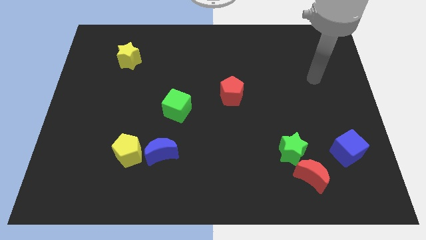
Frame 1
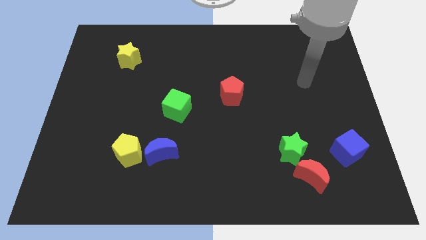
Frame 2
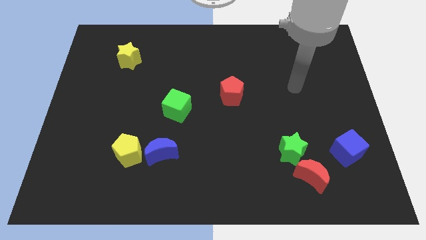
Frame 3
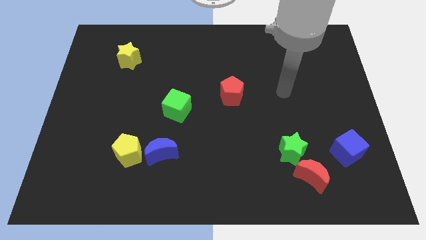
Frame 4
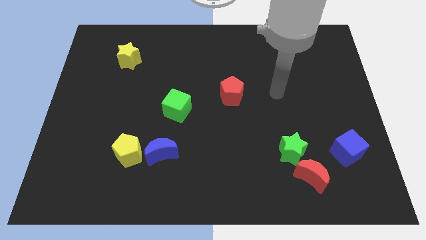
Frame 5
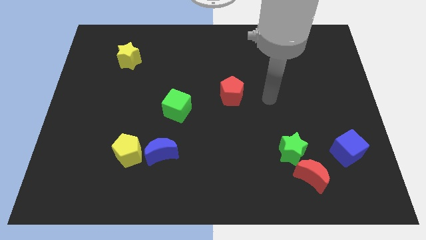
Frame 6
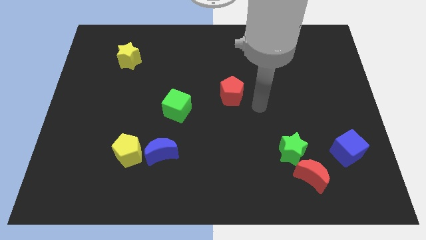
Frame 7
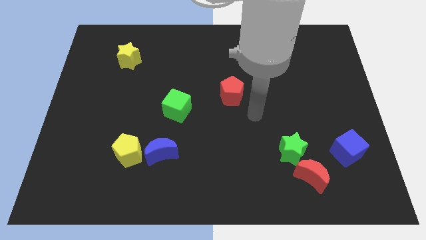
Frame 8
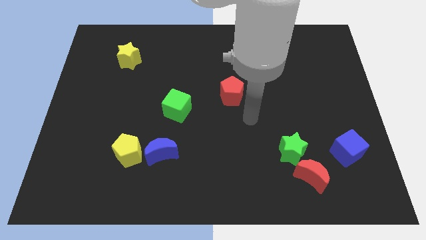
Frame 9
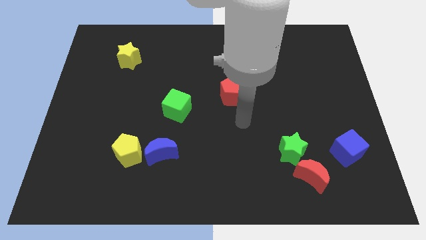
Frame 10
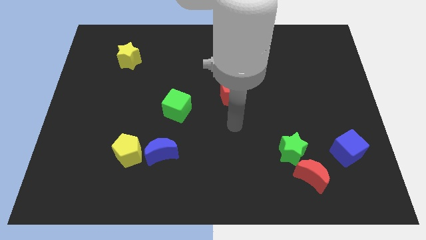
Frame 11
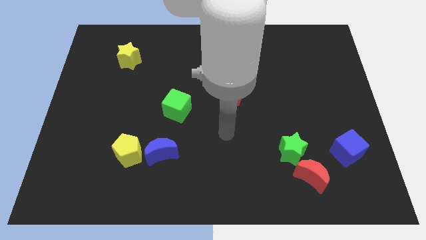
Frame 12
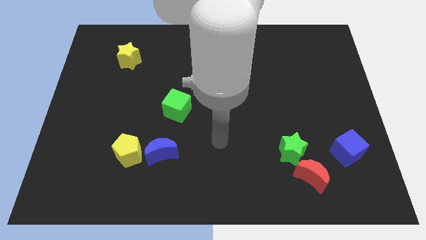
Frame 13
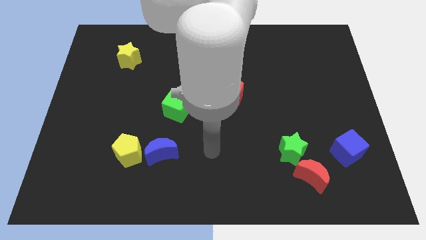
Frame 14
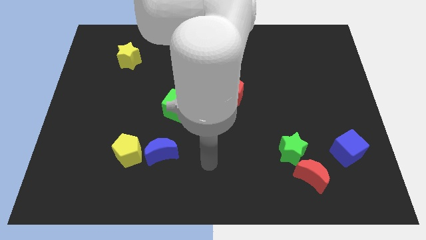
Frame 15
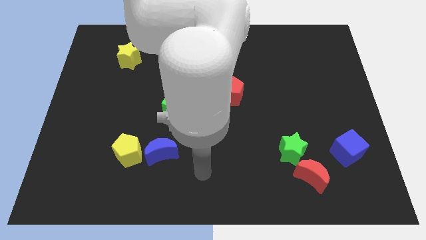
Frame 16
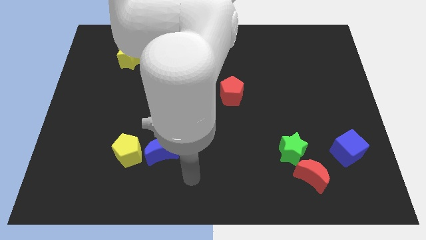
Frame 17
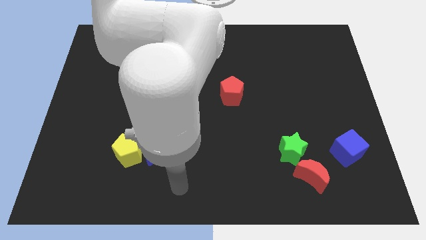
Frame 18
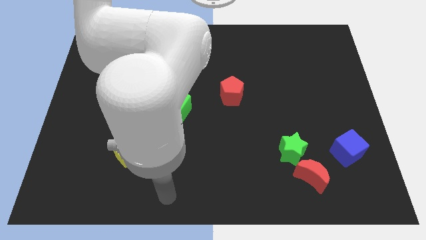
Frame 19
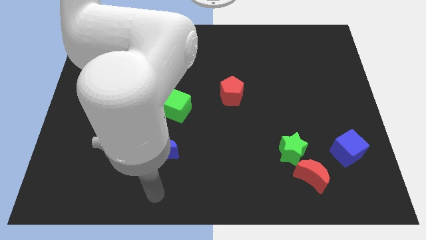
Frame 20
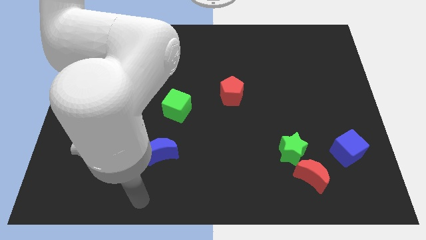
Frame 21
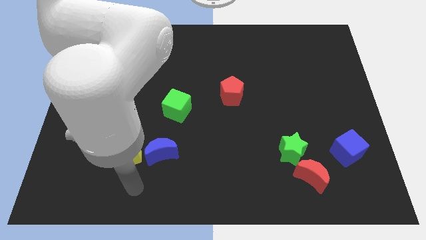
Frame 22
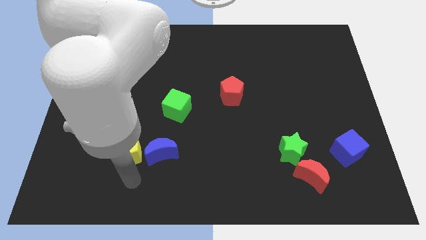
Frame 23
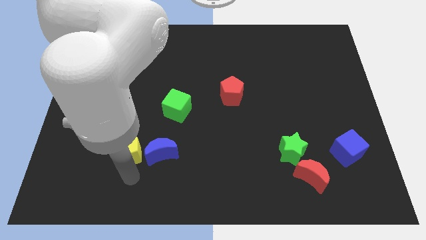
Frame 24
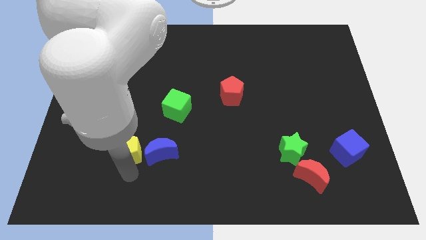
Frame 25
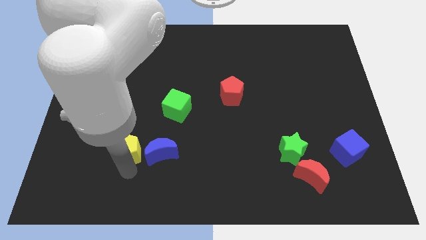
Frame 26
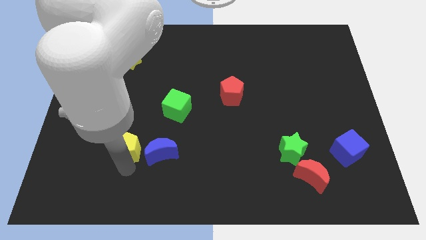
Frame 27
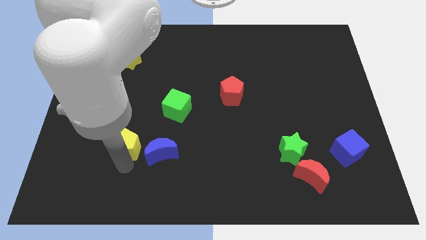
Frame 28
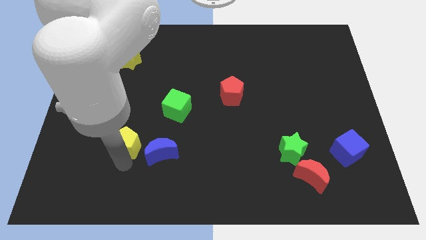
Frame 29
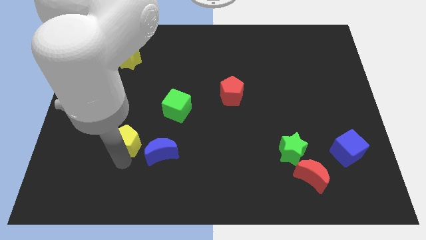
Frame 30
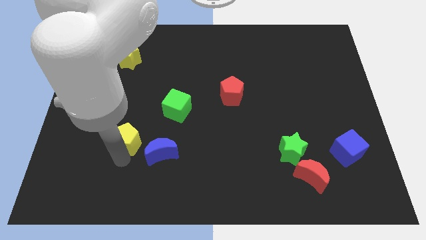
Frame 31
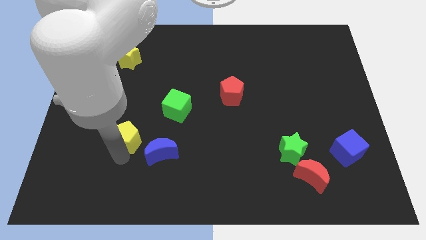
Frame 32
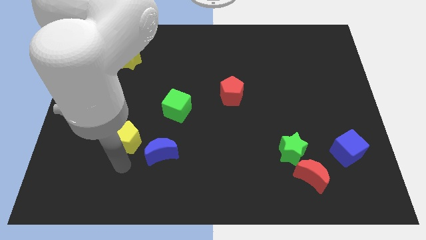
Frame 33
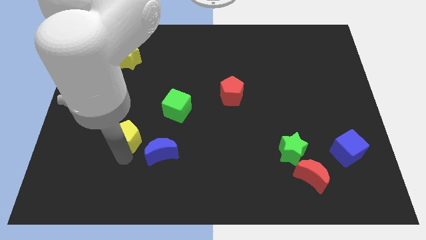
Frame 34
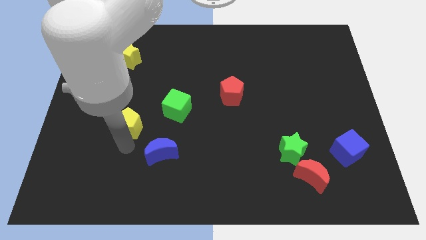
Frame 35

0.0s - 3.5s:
slightly push the yellow pentagon upwards

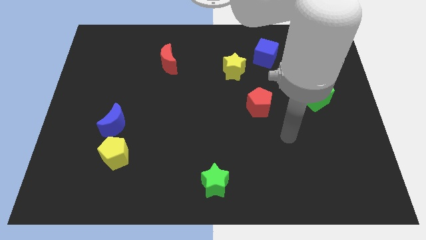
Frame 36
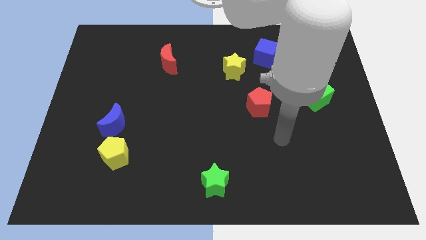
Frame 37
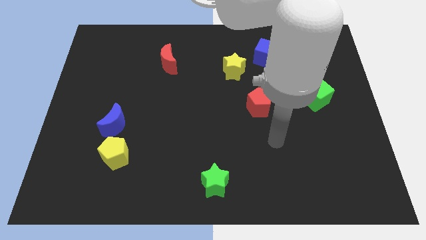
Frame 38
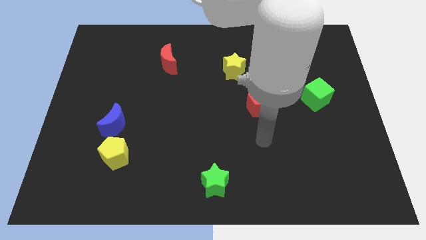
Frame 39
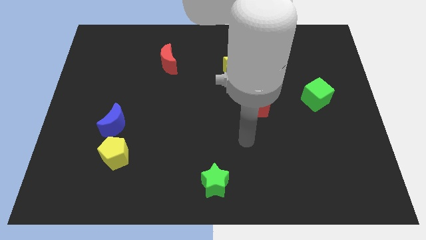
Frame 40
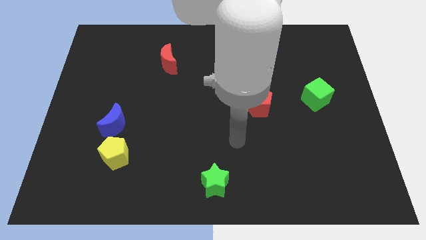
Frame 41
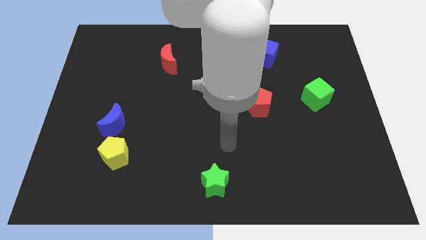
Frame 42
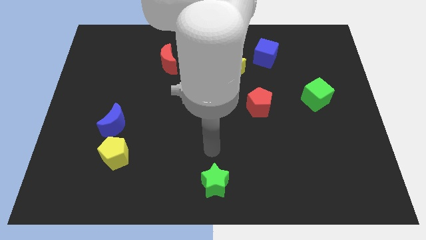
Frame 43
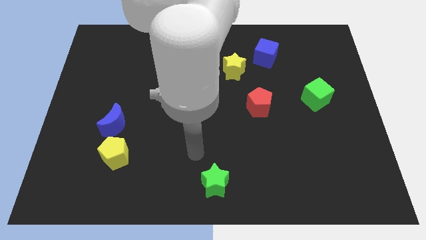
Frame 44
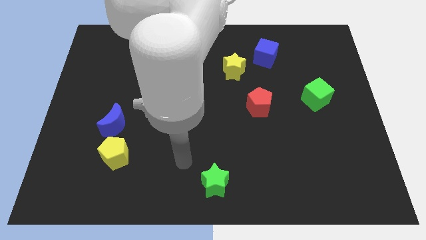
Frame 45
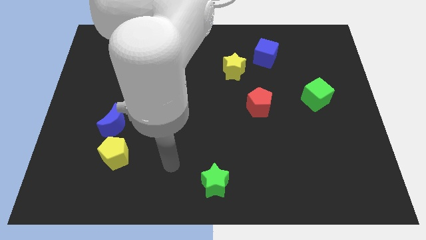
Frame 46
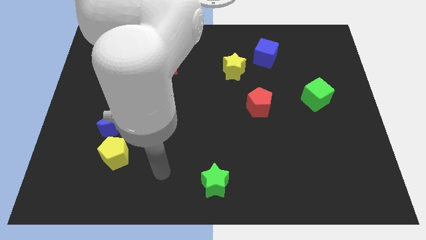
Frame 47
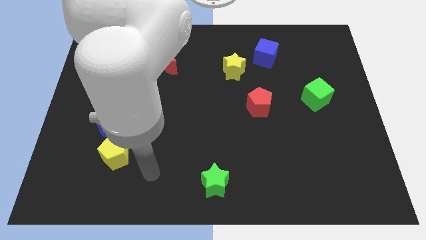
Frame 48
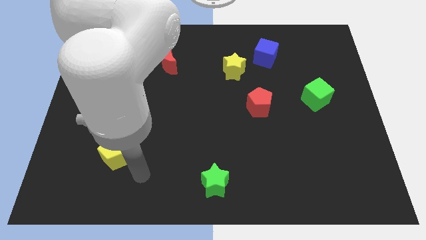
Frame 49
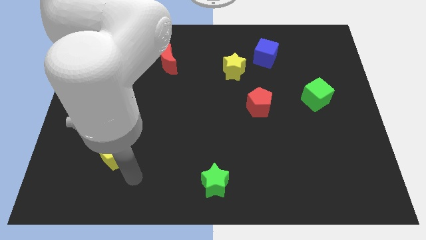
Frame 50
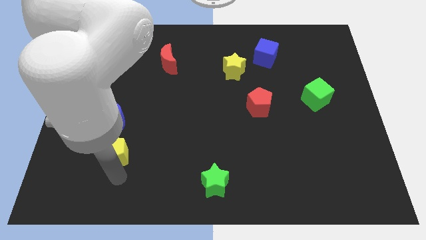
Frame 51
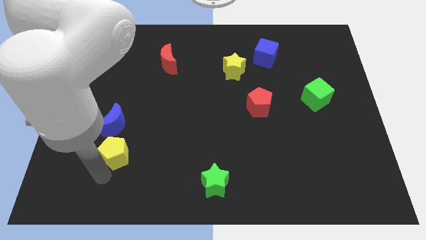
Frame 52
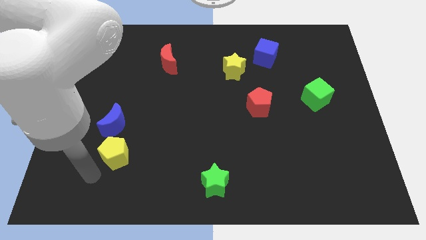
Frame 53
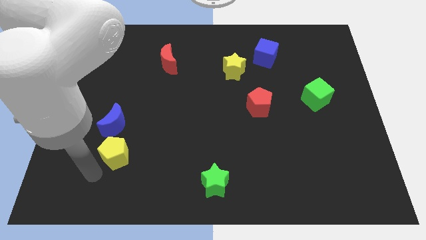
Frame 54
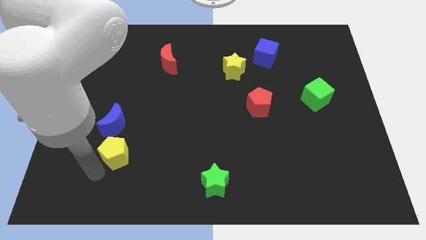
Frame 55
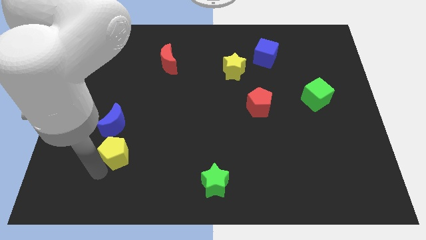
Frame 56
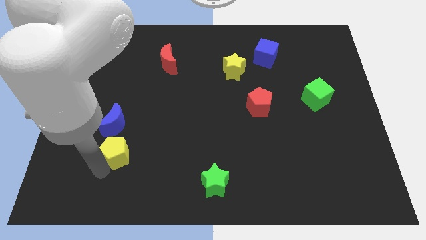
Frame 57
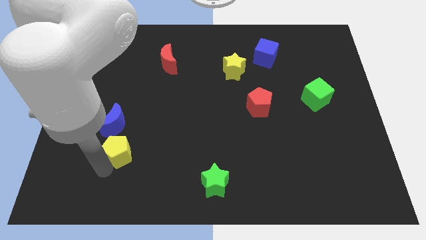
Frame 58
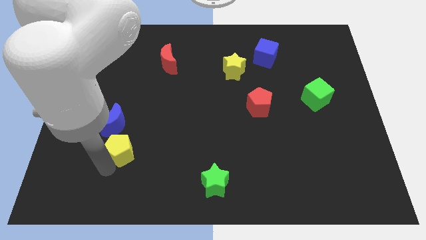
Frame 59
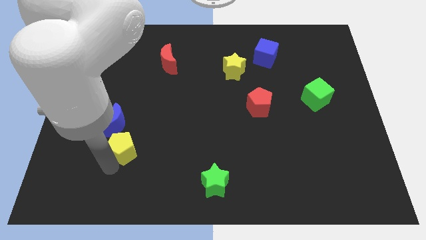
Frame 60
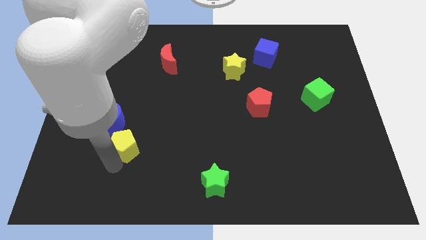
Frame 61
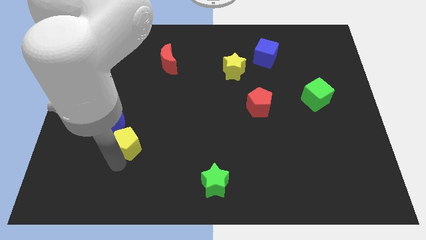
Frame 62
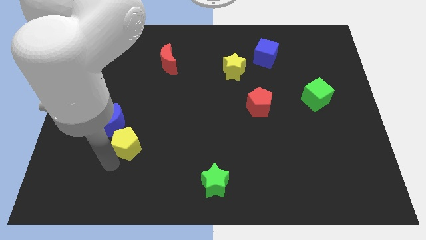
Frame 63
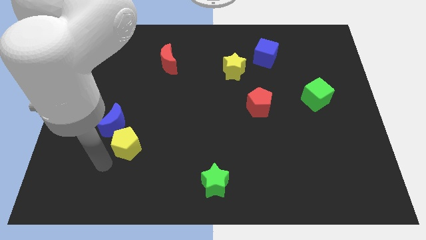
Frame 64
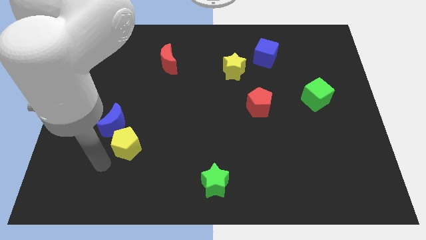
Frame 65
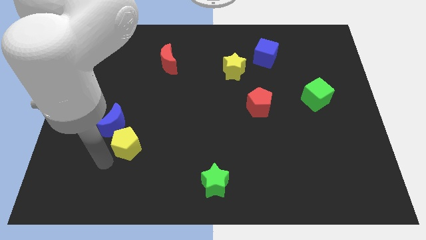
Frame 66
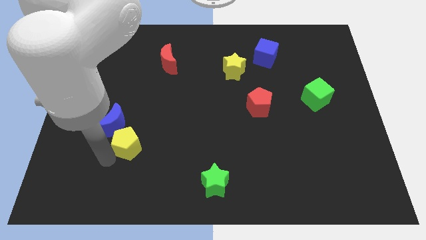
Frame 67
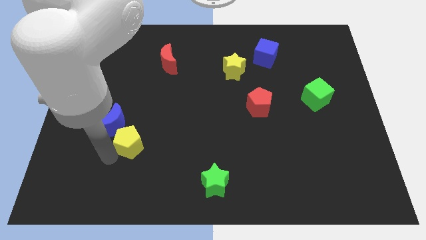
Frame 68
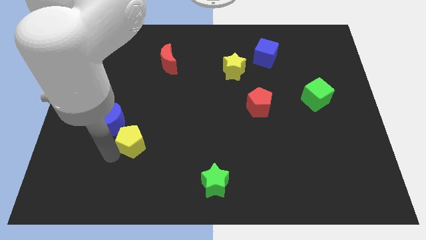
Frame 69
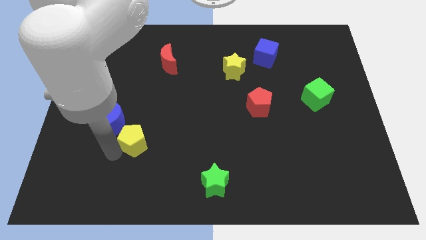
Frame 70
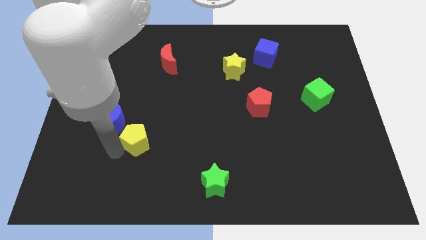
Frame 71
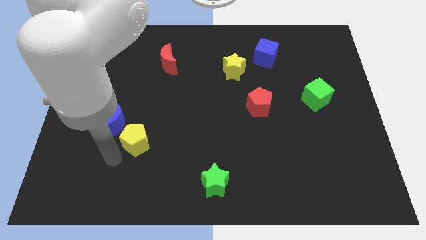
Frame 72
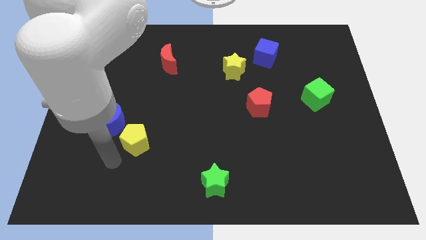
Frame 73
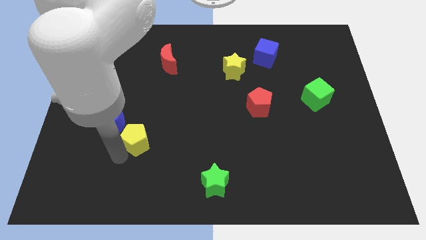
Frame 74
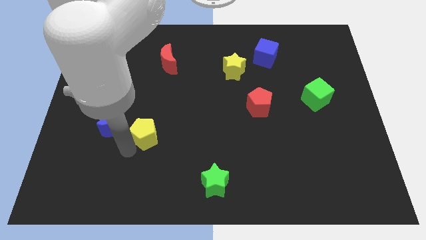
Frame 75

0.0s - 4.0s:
slightly slide the yellow pentagon upwards and to the right diagonally
